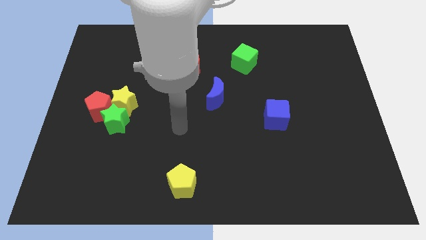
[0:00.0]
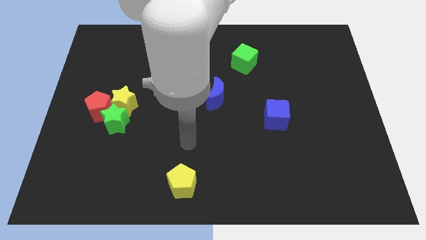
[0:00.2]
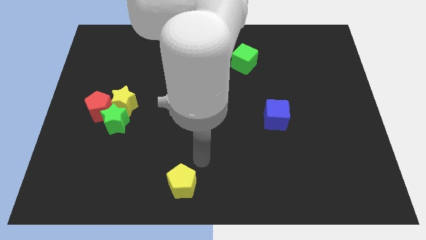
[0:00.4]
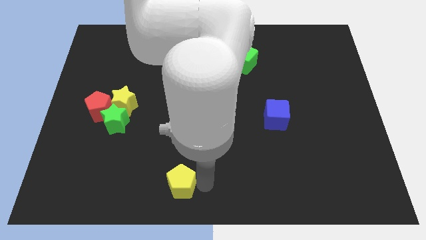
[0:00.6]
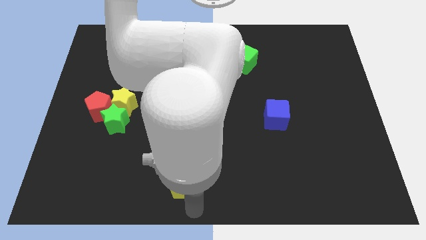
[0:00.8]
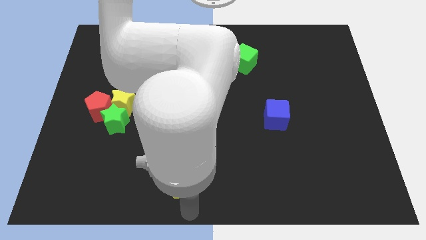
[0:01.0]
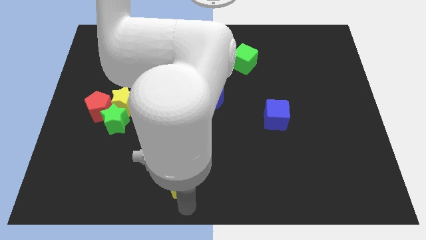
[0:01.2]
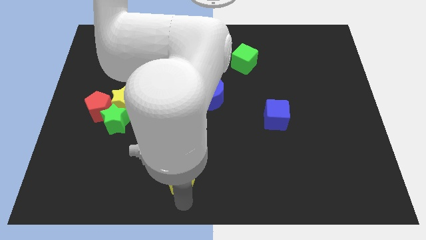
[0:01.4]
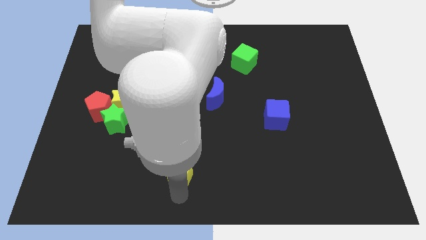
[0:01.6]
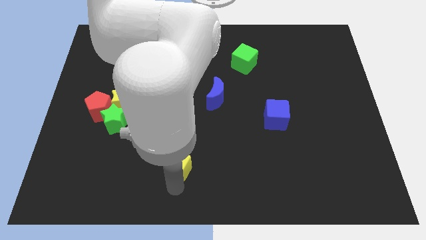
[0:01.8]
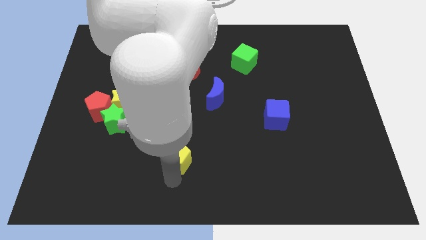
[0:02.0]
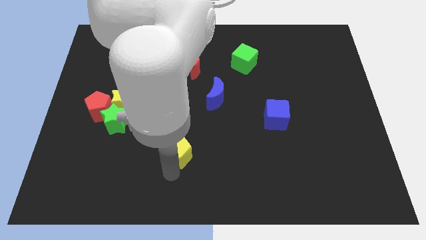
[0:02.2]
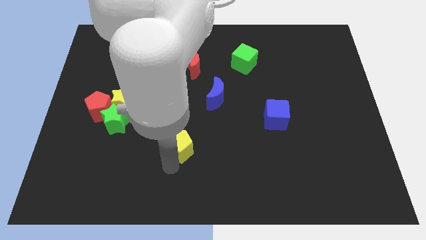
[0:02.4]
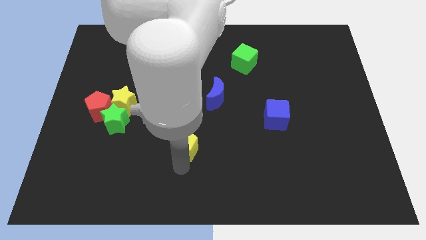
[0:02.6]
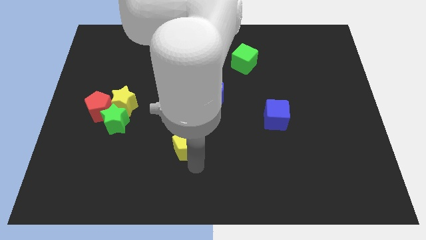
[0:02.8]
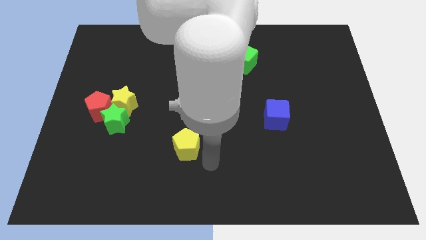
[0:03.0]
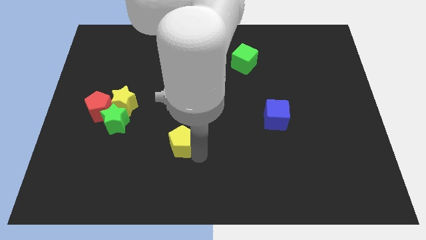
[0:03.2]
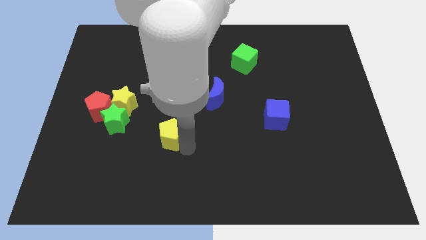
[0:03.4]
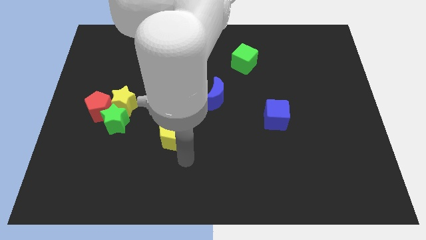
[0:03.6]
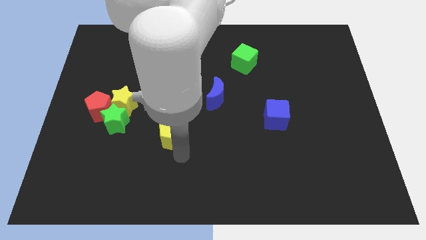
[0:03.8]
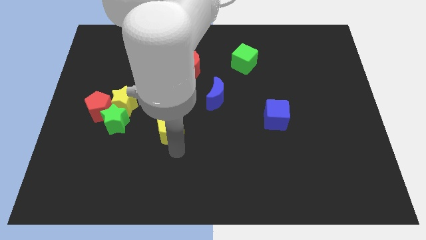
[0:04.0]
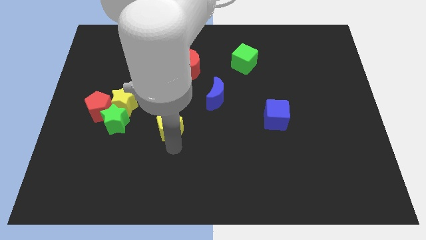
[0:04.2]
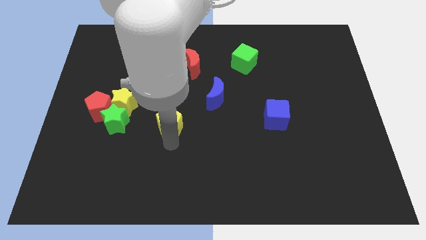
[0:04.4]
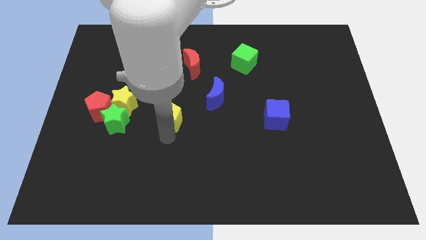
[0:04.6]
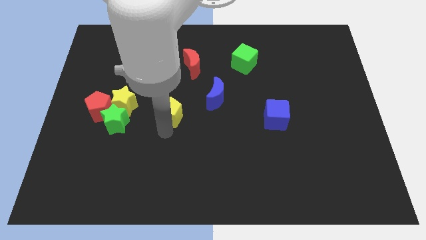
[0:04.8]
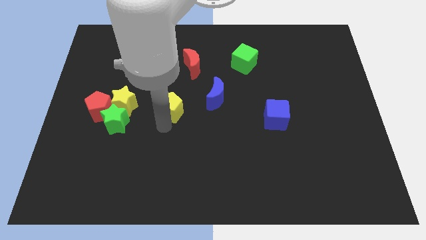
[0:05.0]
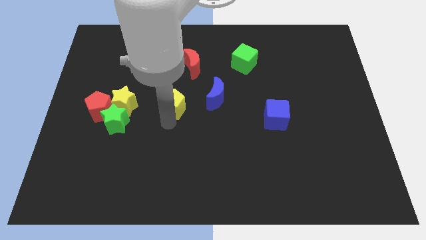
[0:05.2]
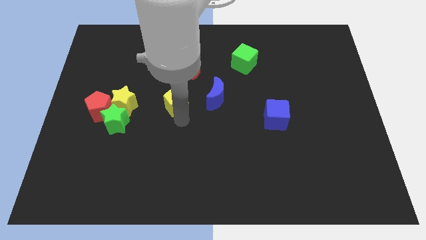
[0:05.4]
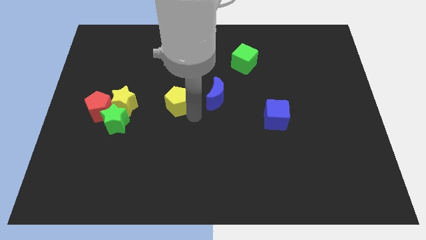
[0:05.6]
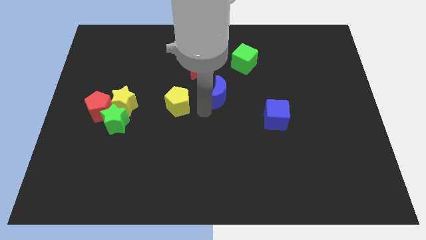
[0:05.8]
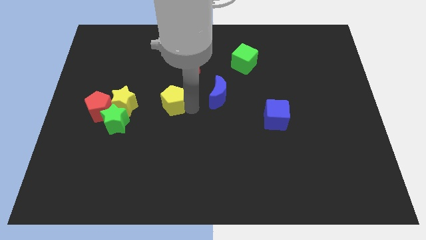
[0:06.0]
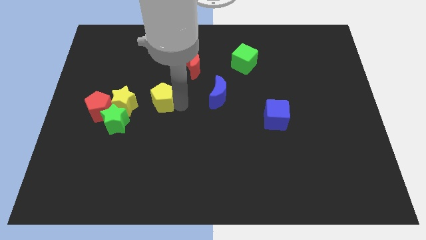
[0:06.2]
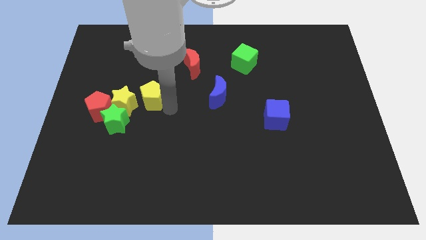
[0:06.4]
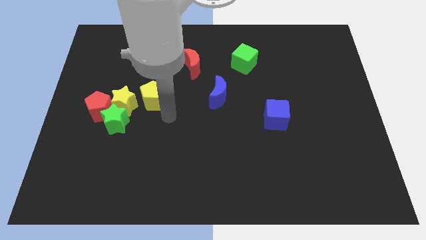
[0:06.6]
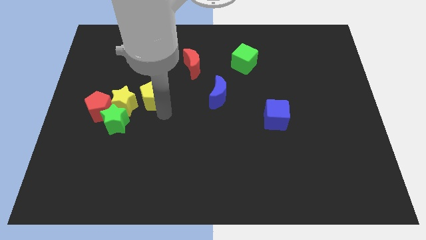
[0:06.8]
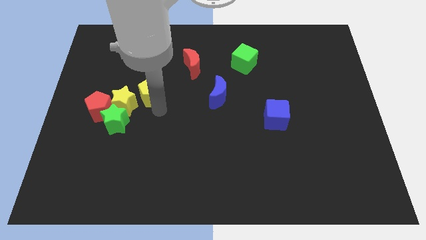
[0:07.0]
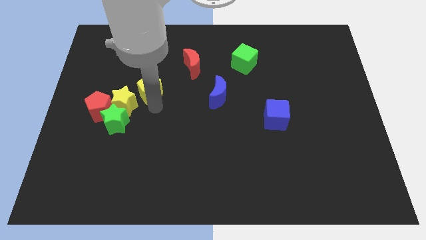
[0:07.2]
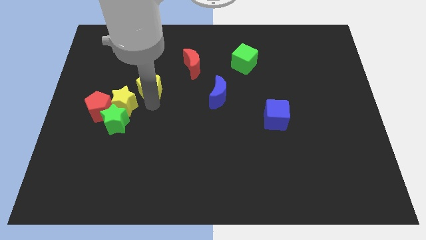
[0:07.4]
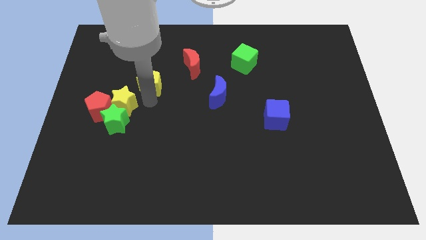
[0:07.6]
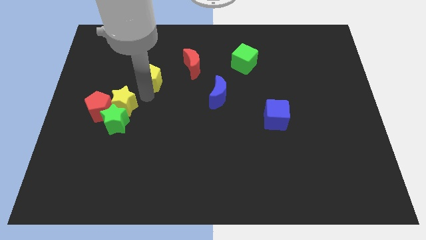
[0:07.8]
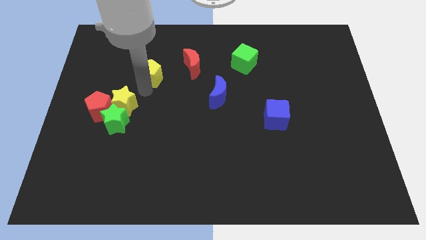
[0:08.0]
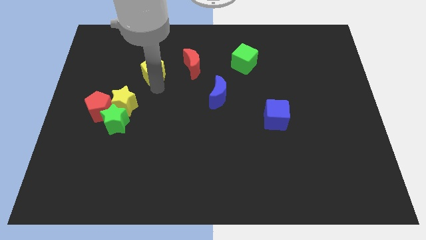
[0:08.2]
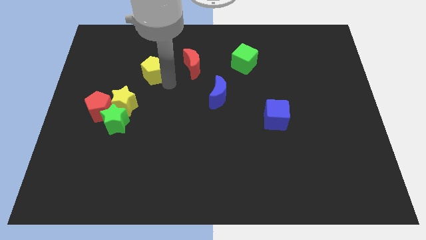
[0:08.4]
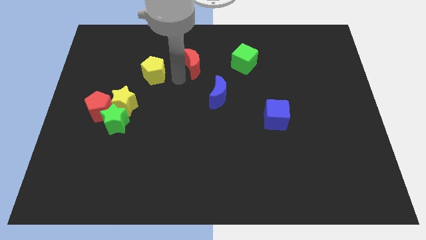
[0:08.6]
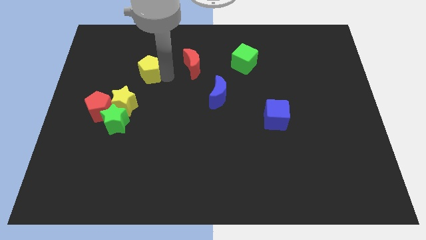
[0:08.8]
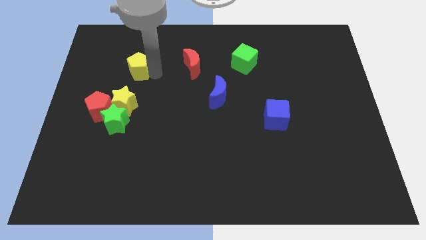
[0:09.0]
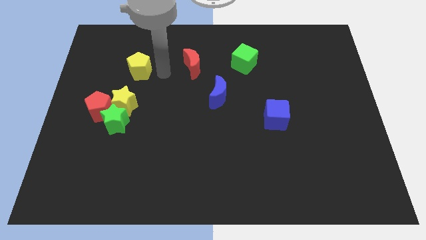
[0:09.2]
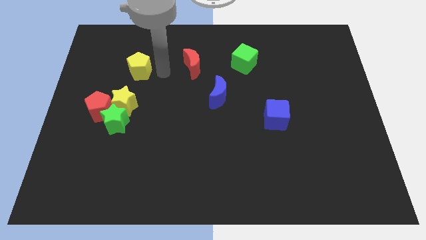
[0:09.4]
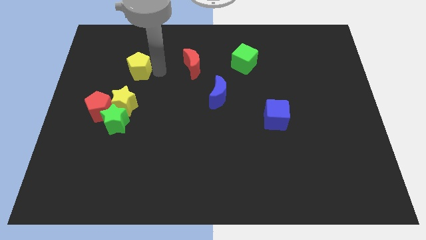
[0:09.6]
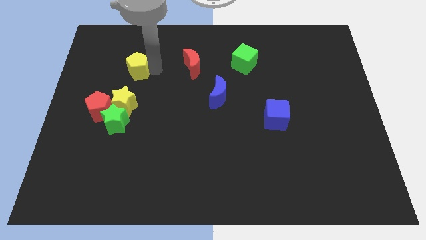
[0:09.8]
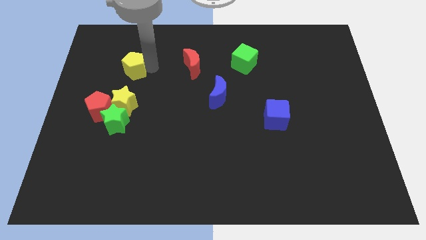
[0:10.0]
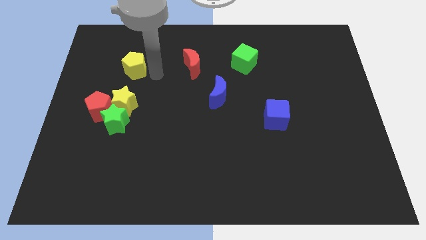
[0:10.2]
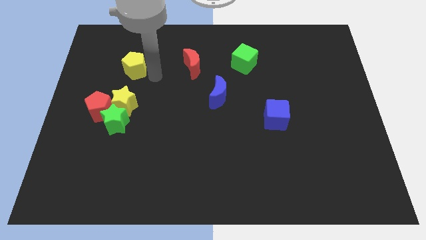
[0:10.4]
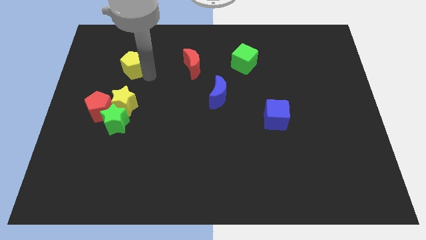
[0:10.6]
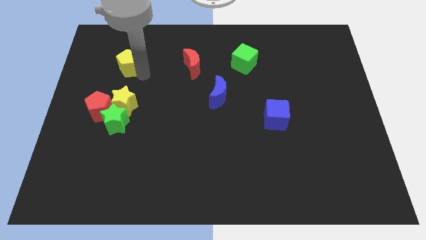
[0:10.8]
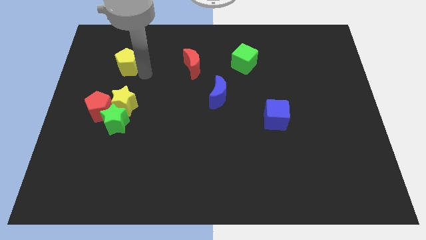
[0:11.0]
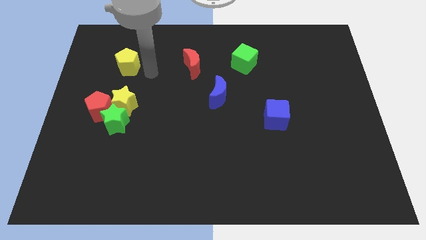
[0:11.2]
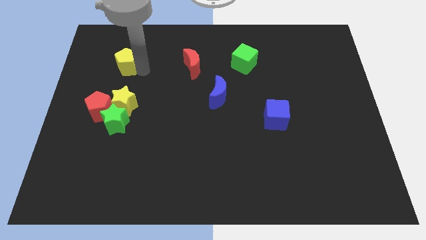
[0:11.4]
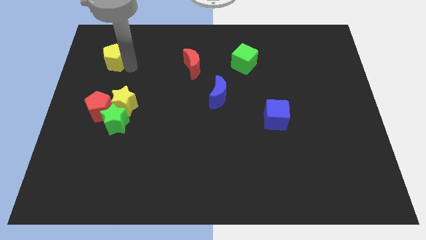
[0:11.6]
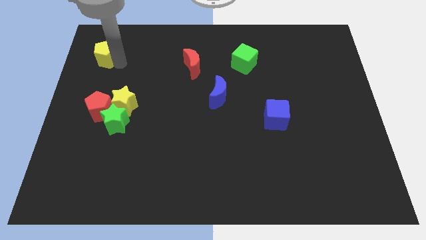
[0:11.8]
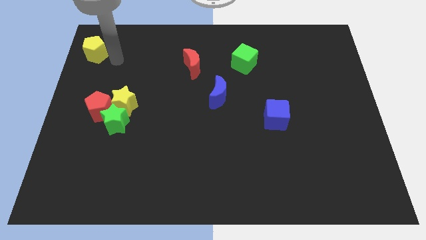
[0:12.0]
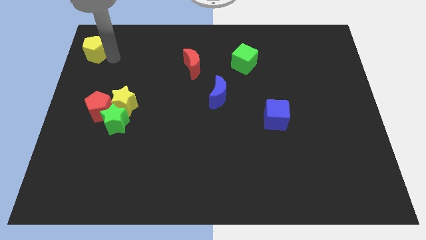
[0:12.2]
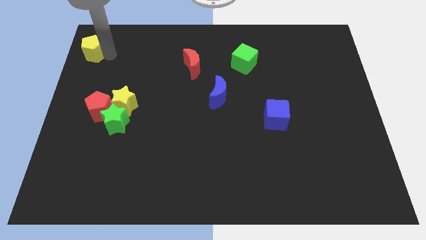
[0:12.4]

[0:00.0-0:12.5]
put the yellow pentagon to the top left corner
